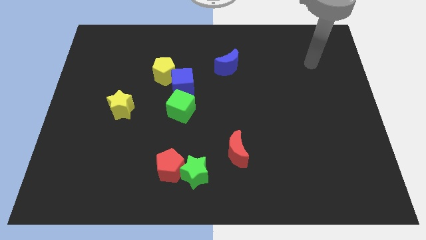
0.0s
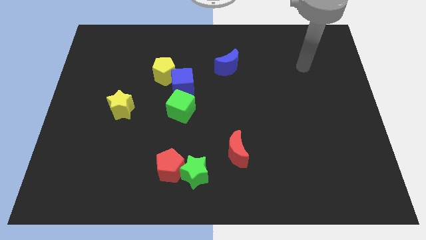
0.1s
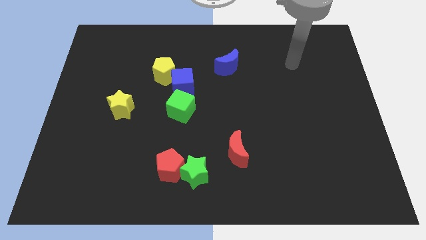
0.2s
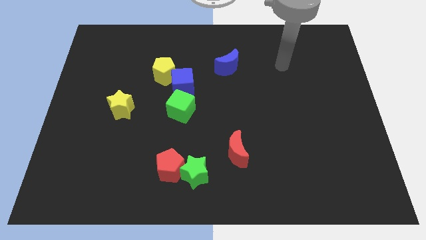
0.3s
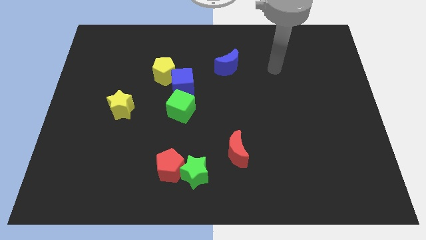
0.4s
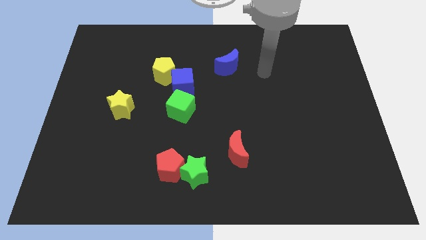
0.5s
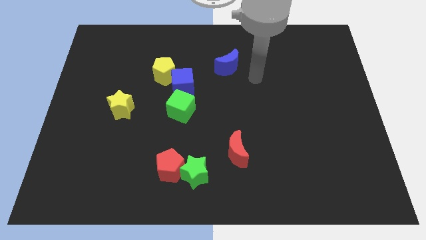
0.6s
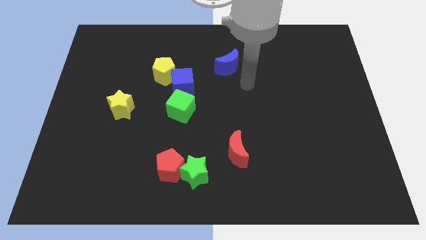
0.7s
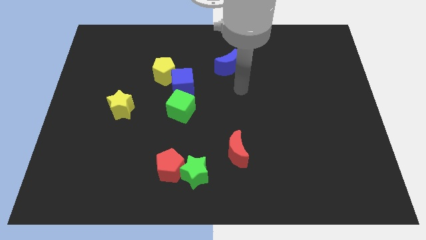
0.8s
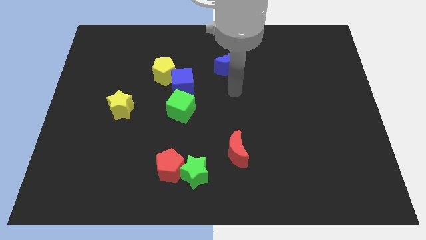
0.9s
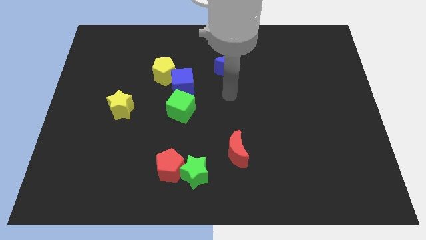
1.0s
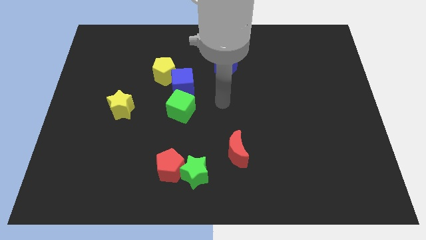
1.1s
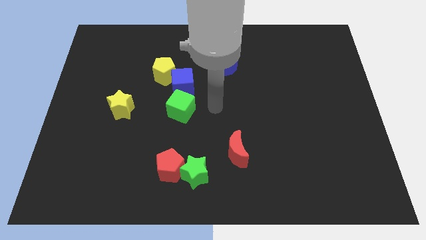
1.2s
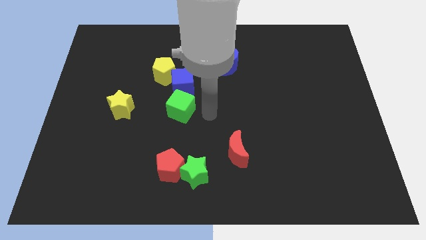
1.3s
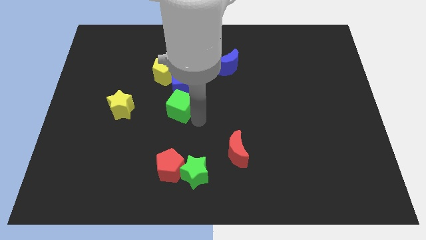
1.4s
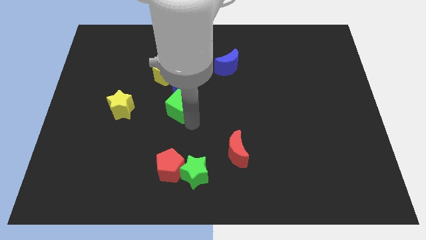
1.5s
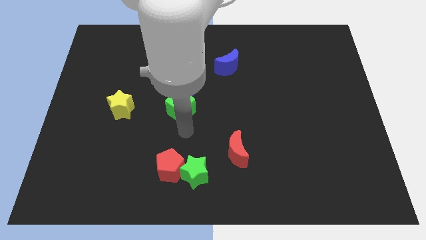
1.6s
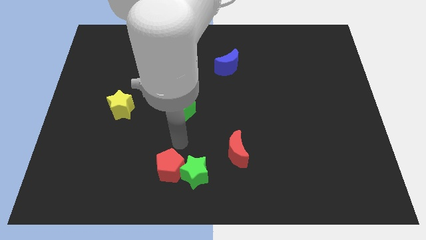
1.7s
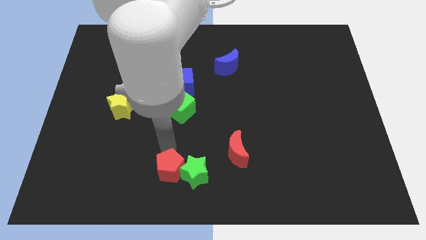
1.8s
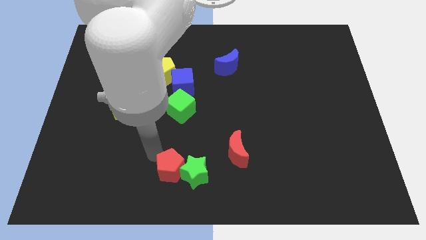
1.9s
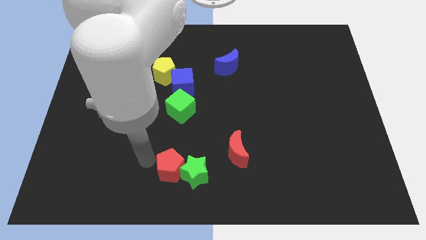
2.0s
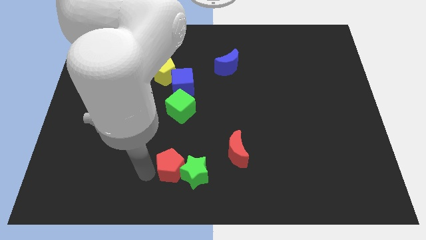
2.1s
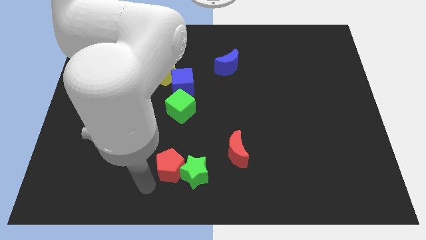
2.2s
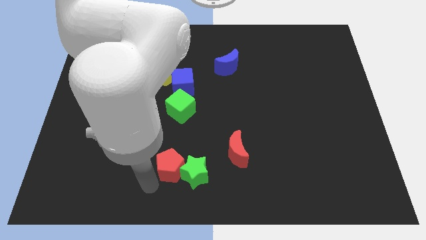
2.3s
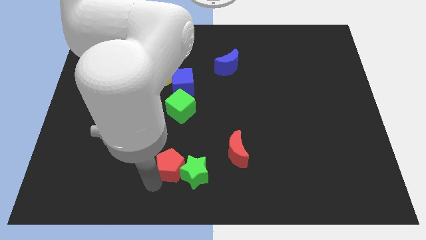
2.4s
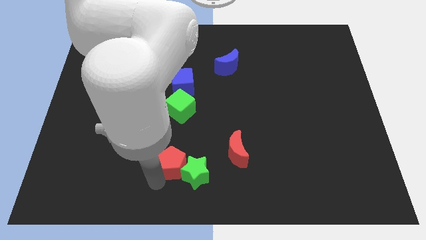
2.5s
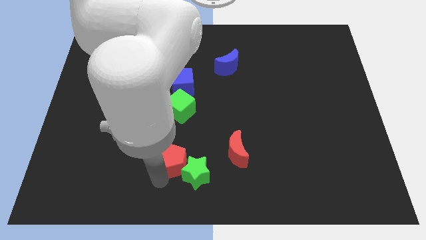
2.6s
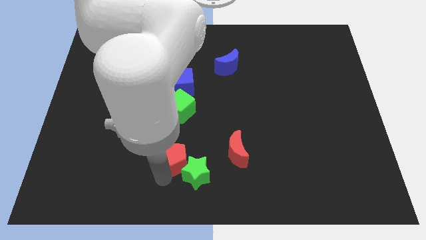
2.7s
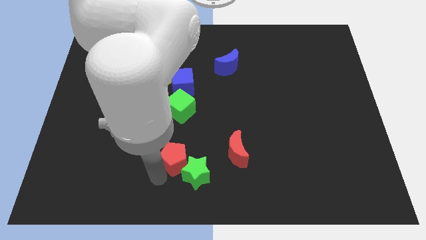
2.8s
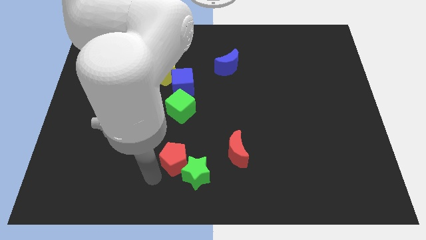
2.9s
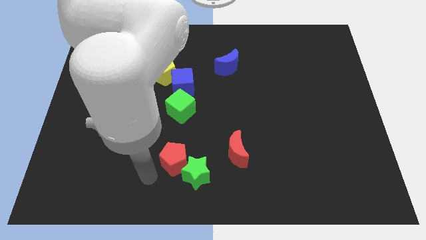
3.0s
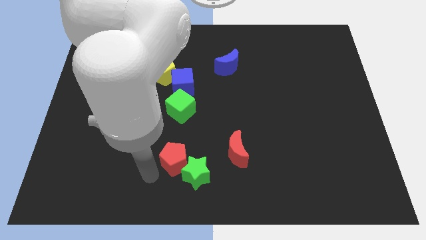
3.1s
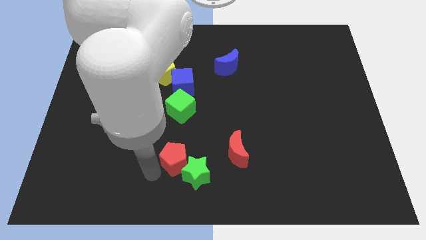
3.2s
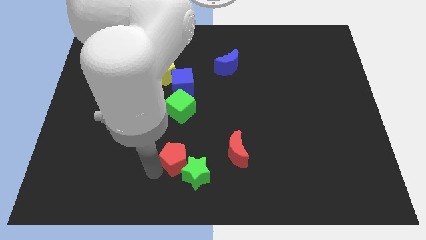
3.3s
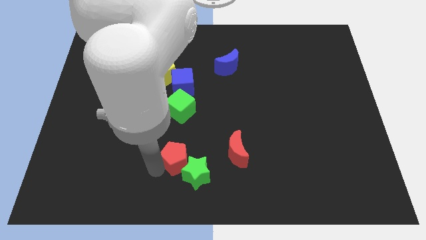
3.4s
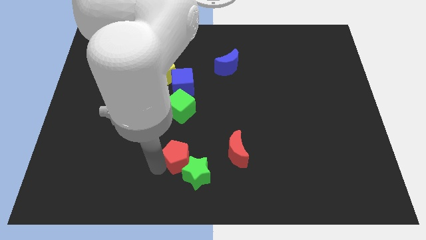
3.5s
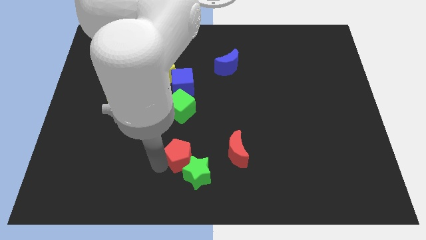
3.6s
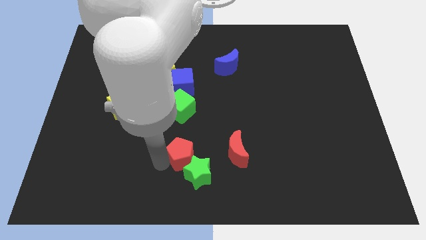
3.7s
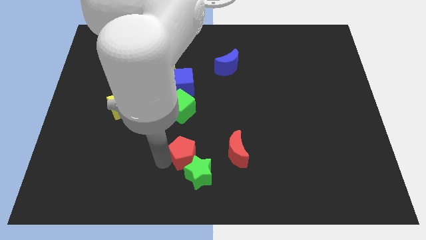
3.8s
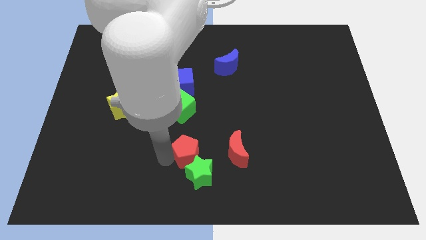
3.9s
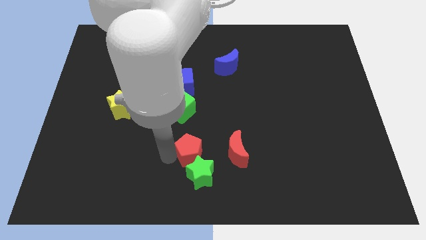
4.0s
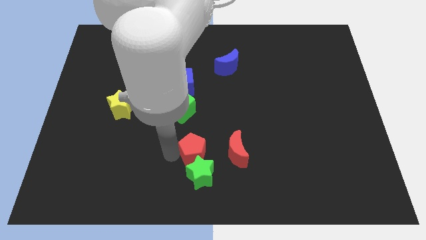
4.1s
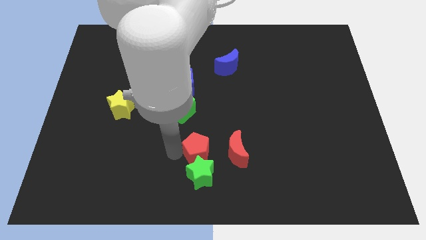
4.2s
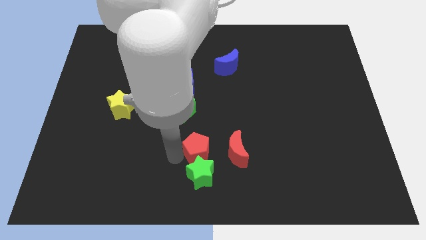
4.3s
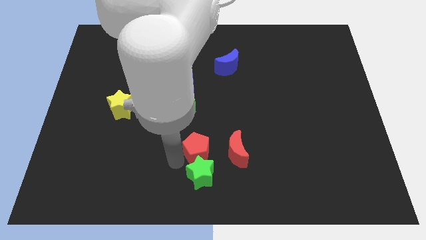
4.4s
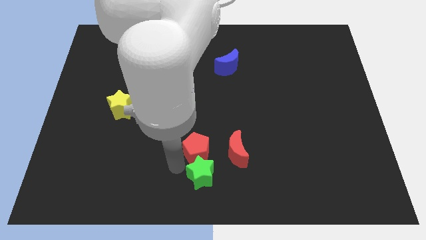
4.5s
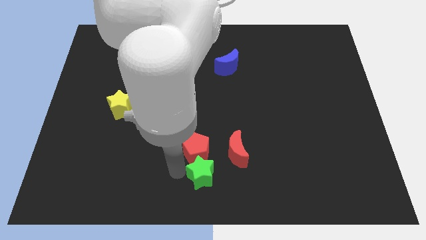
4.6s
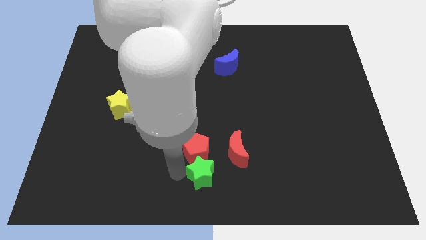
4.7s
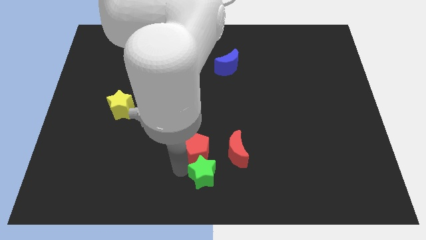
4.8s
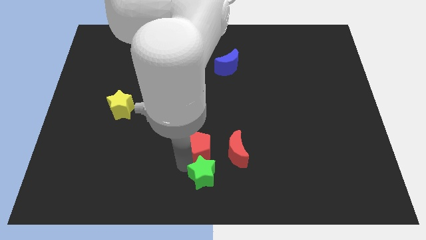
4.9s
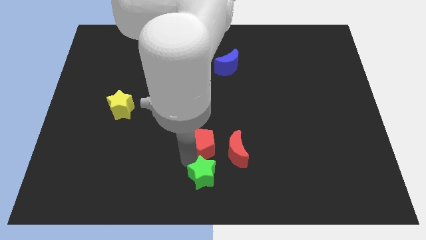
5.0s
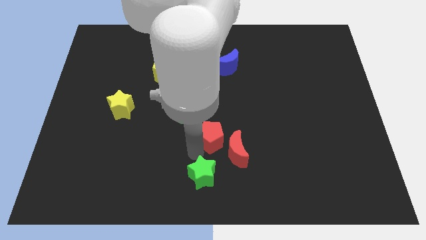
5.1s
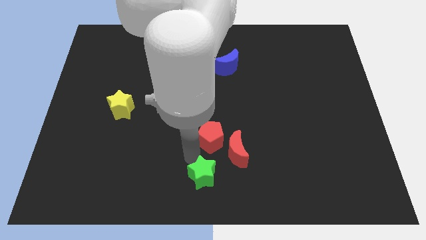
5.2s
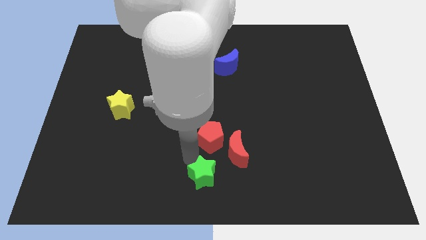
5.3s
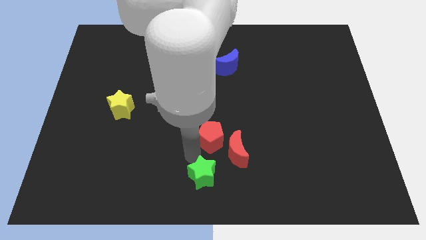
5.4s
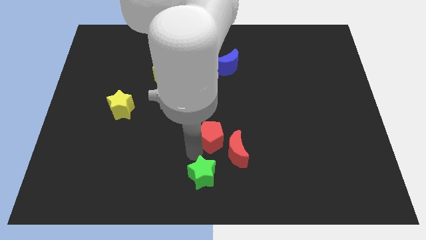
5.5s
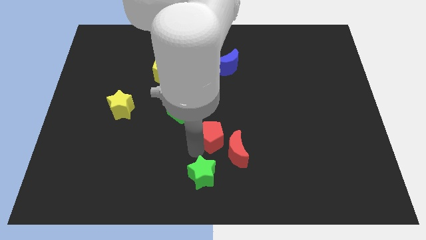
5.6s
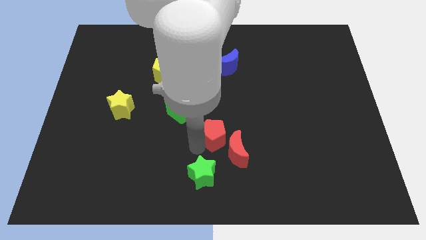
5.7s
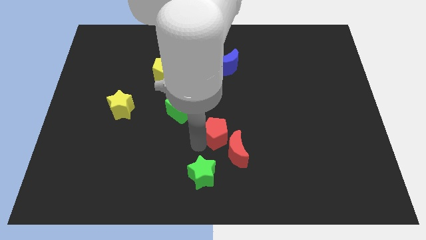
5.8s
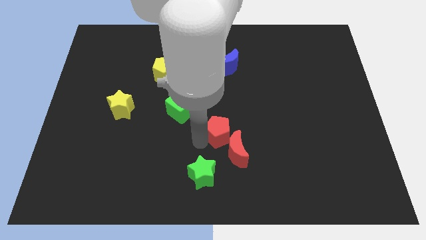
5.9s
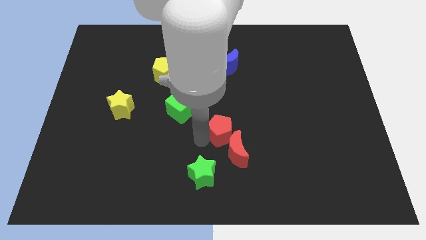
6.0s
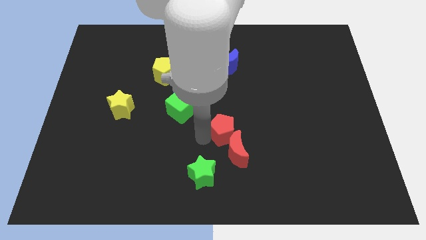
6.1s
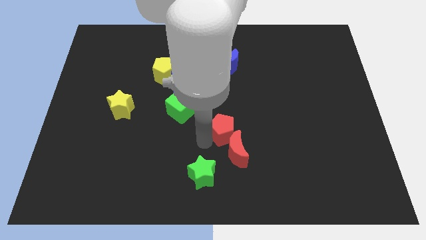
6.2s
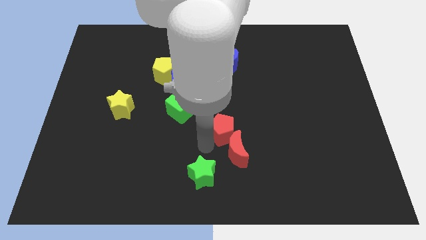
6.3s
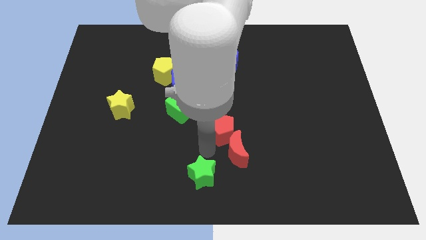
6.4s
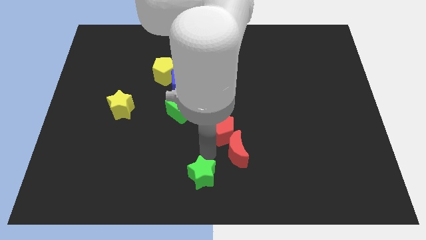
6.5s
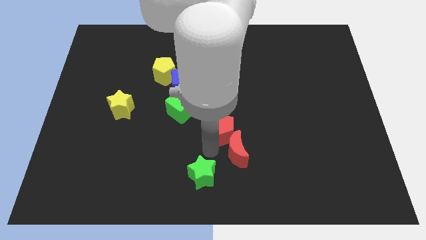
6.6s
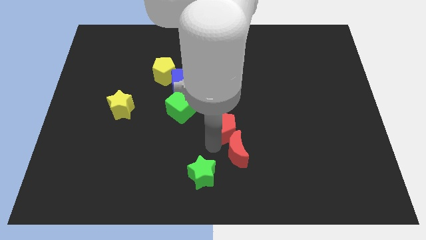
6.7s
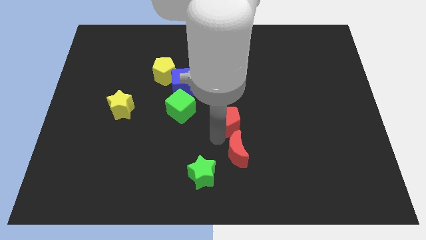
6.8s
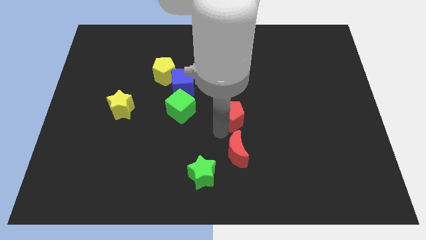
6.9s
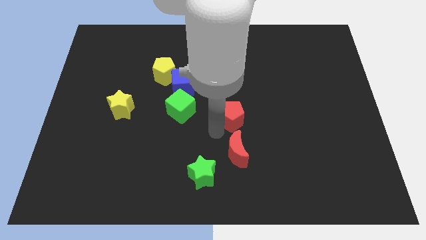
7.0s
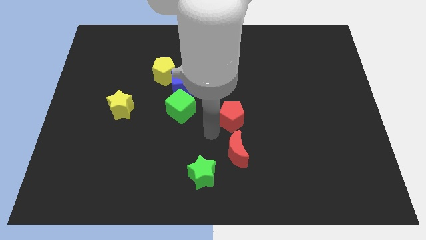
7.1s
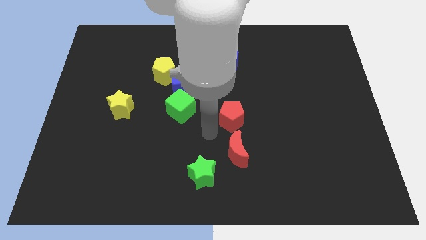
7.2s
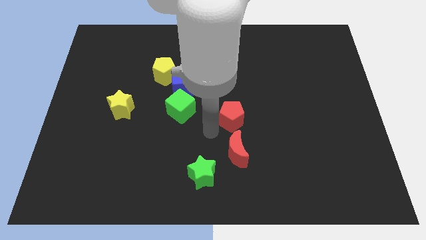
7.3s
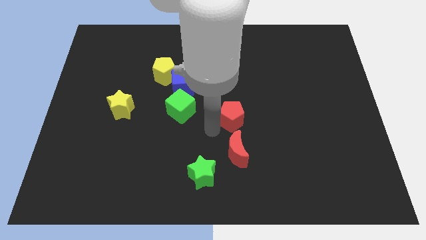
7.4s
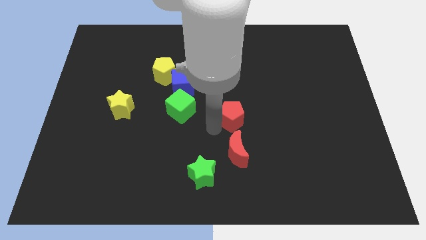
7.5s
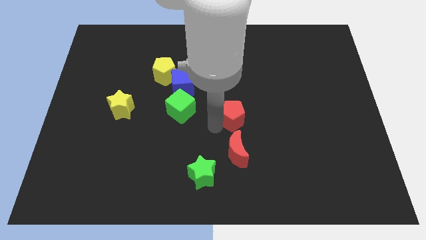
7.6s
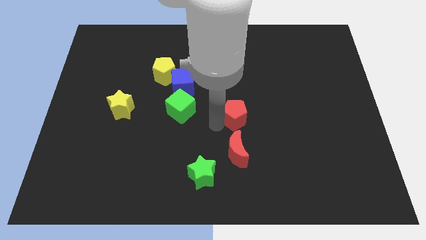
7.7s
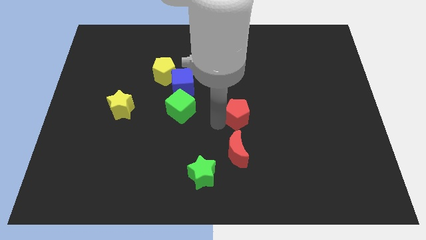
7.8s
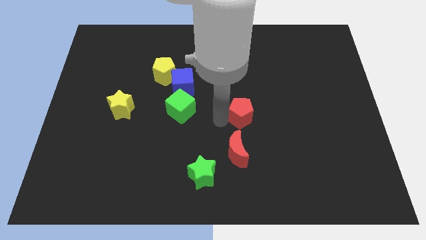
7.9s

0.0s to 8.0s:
slide the red pentagon upwards and to the right diagonally
